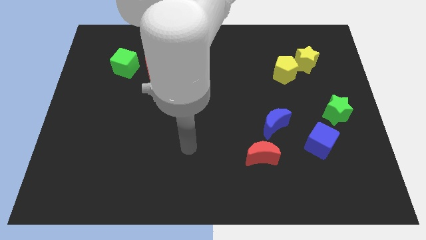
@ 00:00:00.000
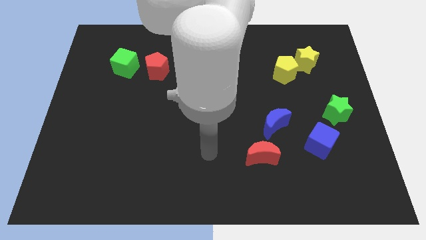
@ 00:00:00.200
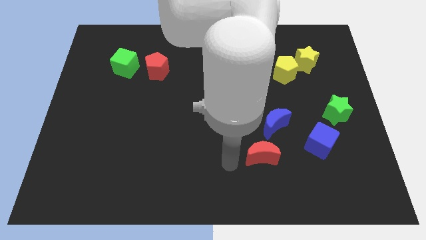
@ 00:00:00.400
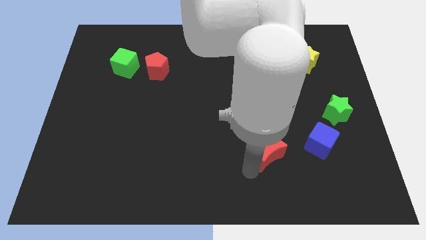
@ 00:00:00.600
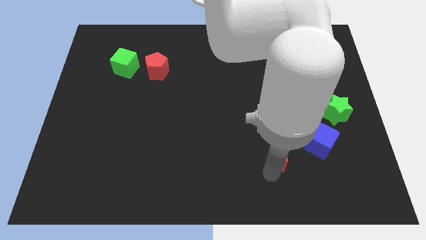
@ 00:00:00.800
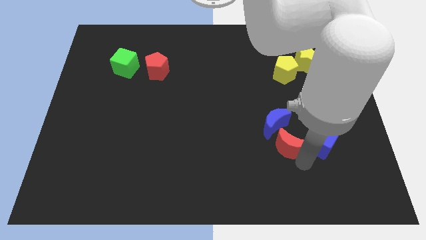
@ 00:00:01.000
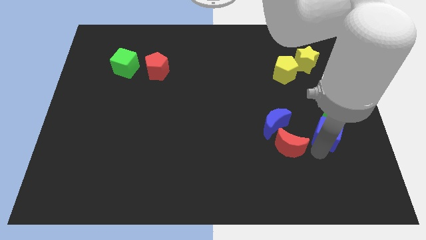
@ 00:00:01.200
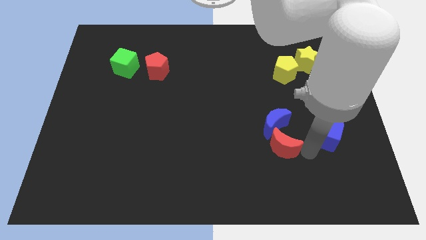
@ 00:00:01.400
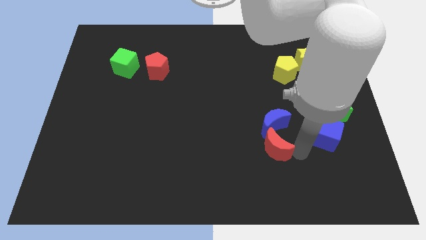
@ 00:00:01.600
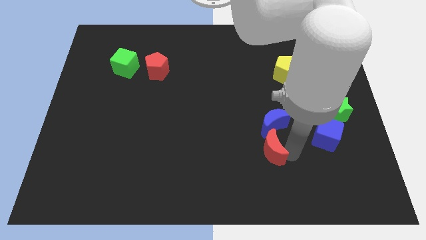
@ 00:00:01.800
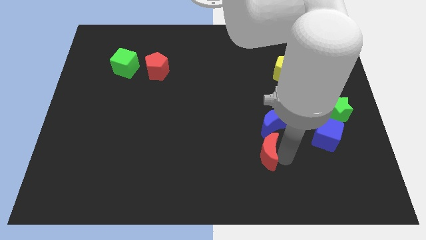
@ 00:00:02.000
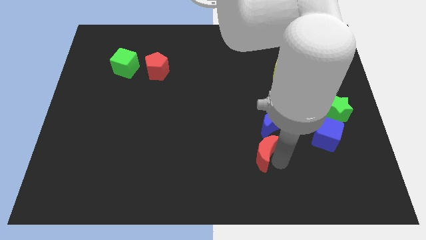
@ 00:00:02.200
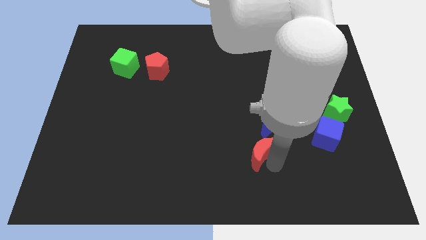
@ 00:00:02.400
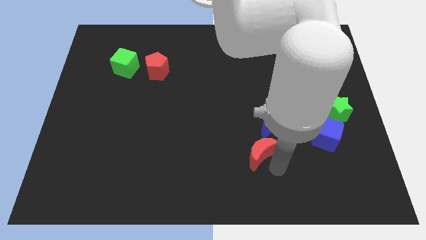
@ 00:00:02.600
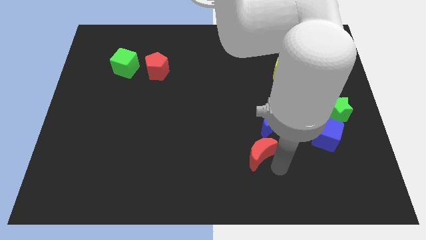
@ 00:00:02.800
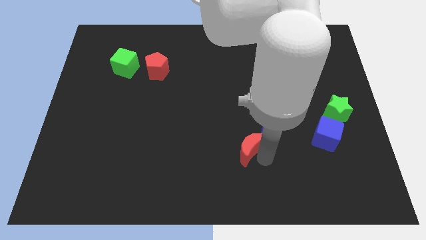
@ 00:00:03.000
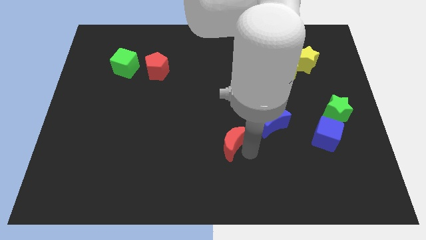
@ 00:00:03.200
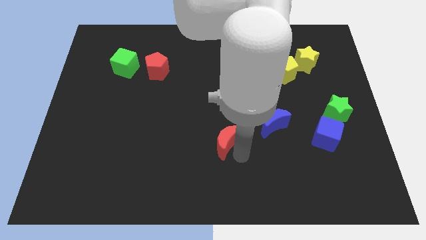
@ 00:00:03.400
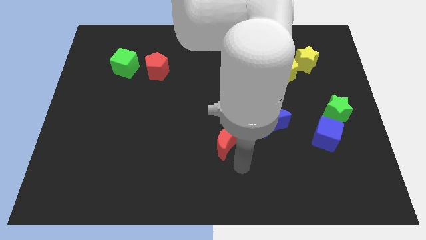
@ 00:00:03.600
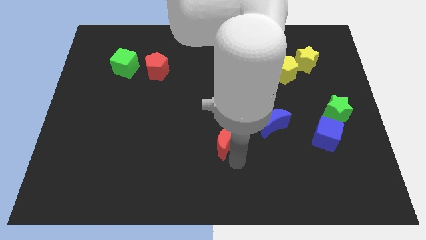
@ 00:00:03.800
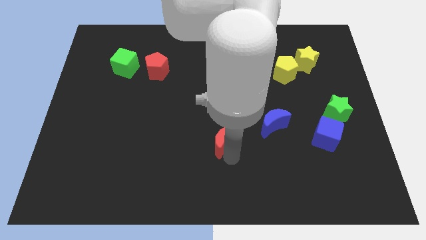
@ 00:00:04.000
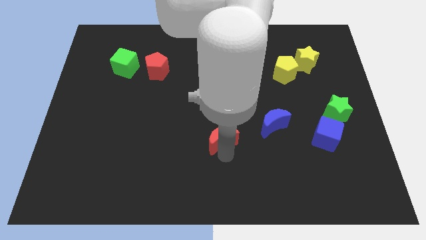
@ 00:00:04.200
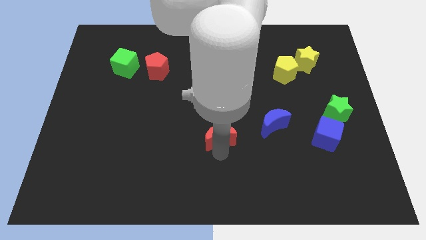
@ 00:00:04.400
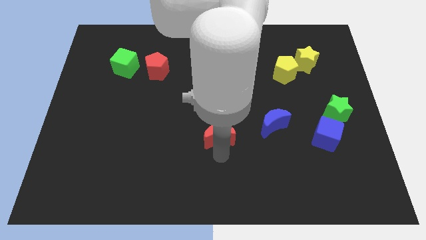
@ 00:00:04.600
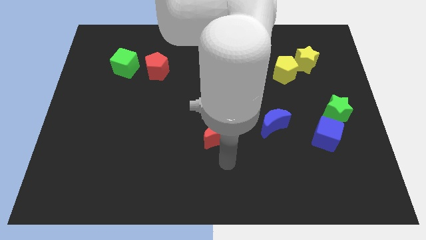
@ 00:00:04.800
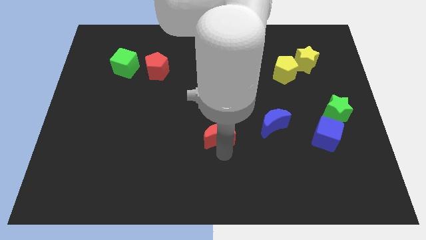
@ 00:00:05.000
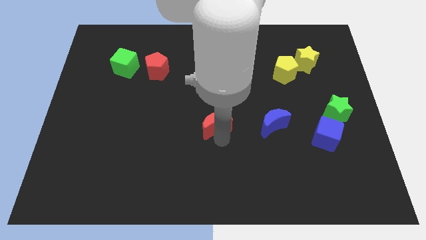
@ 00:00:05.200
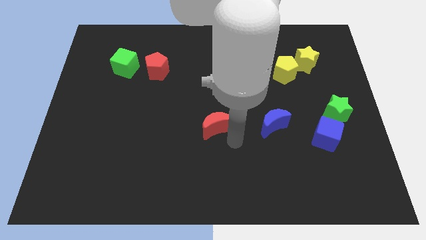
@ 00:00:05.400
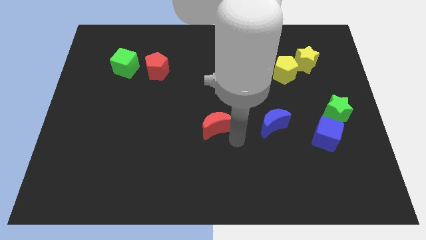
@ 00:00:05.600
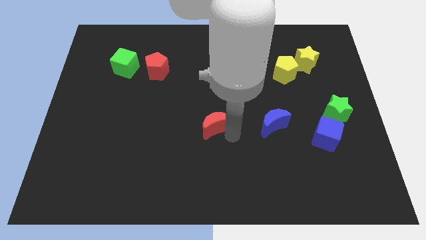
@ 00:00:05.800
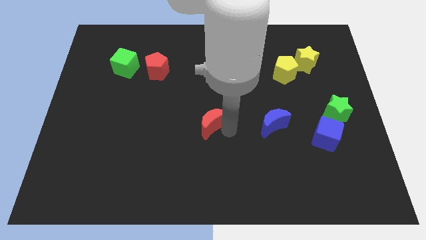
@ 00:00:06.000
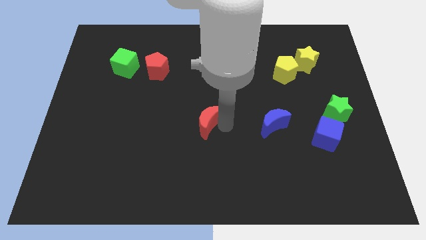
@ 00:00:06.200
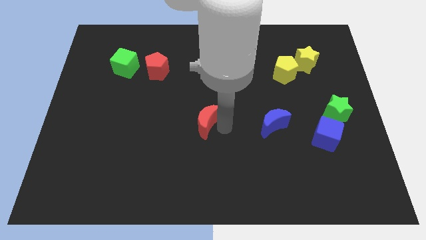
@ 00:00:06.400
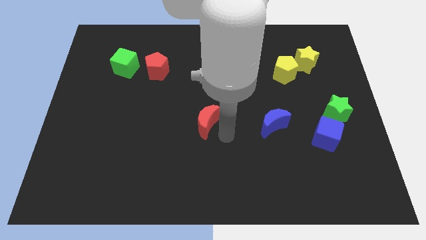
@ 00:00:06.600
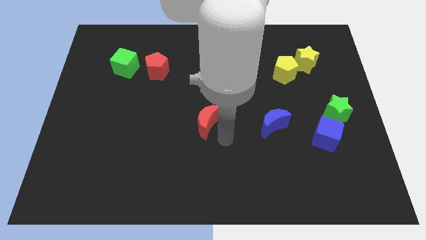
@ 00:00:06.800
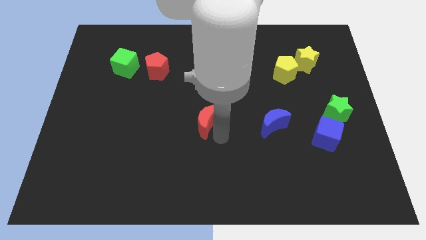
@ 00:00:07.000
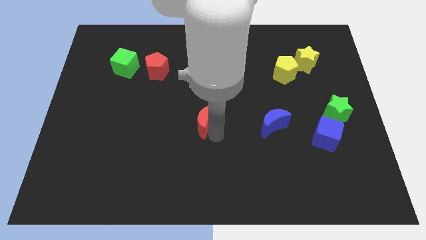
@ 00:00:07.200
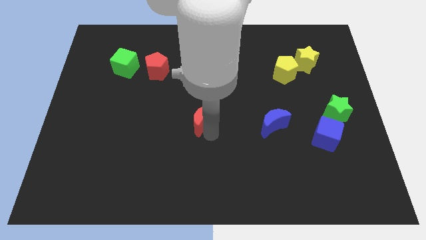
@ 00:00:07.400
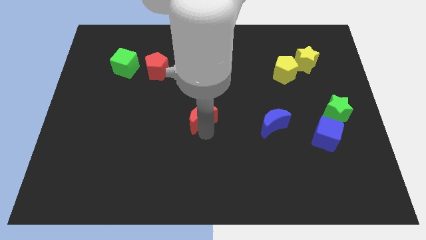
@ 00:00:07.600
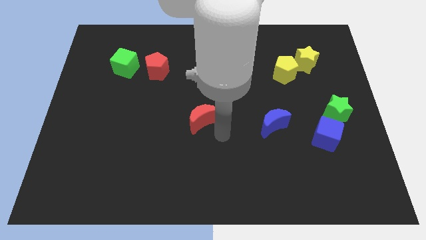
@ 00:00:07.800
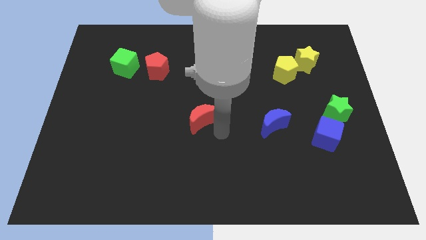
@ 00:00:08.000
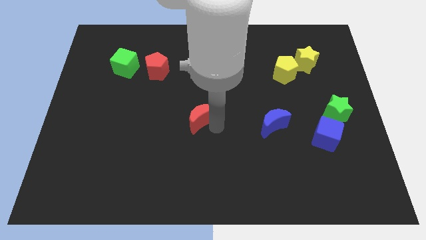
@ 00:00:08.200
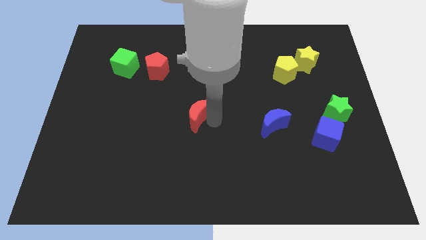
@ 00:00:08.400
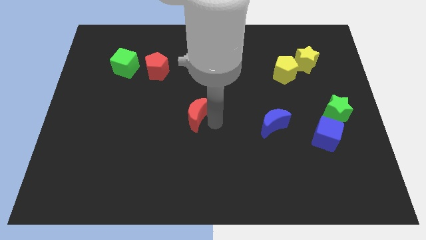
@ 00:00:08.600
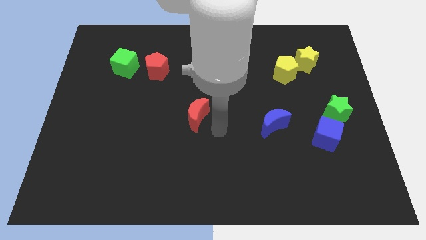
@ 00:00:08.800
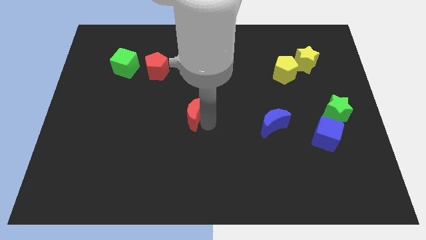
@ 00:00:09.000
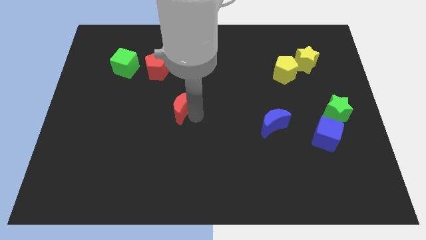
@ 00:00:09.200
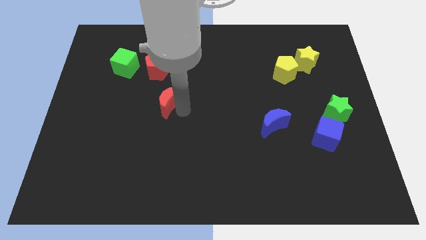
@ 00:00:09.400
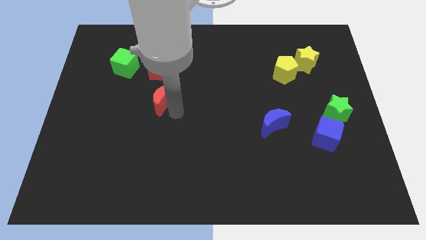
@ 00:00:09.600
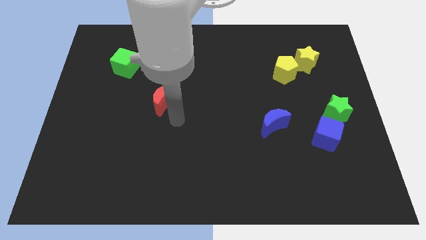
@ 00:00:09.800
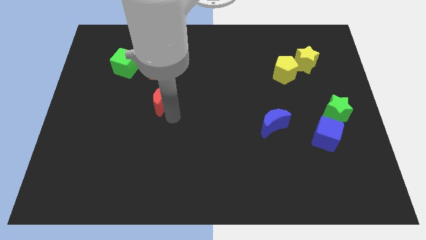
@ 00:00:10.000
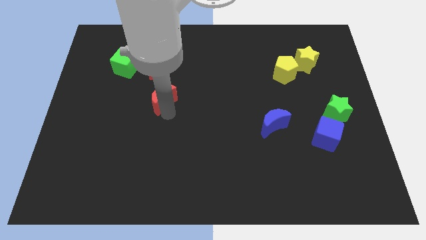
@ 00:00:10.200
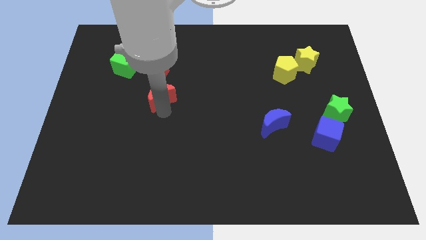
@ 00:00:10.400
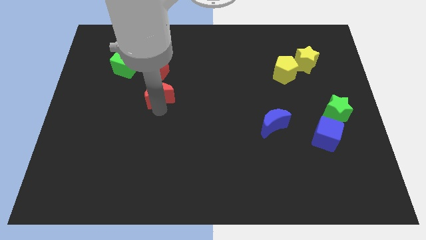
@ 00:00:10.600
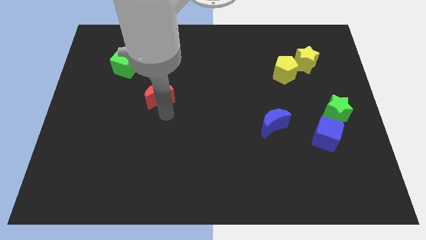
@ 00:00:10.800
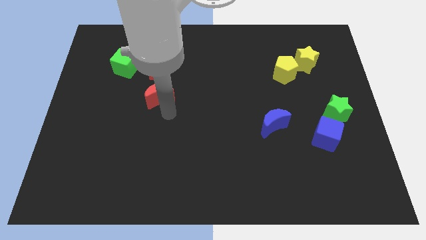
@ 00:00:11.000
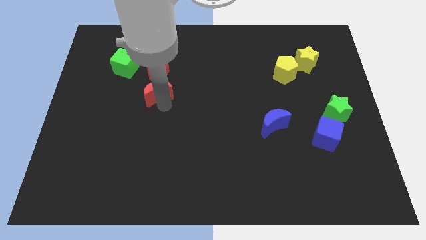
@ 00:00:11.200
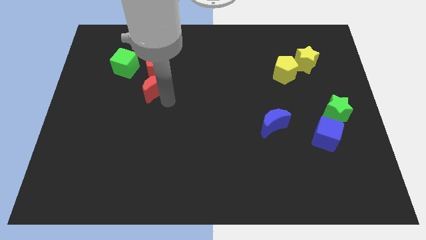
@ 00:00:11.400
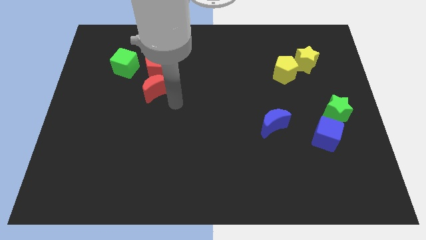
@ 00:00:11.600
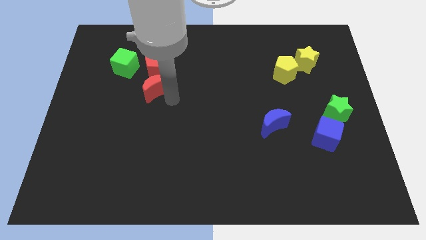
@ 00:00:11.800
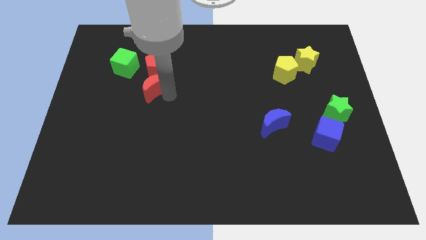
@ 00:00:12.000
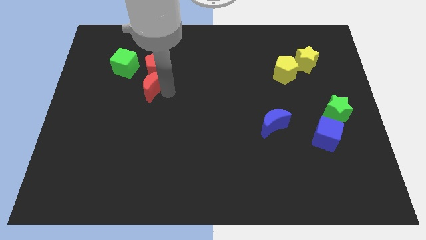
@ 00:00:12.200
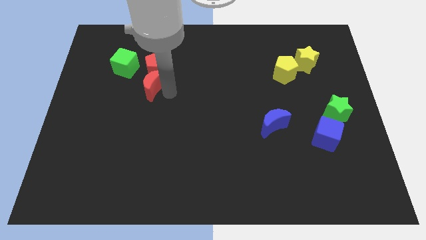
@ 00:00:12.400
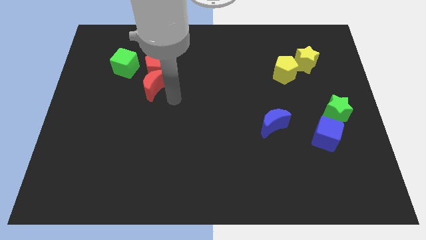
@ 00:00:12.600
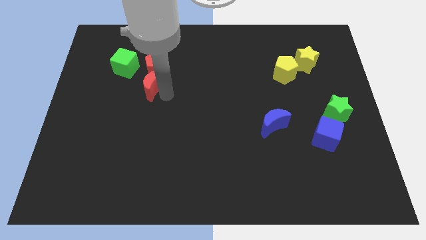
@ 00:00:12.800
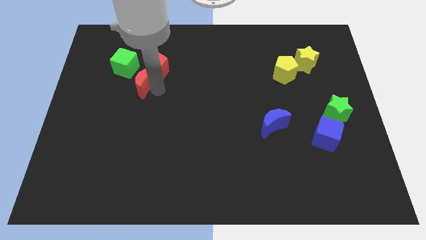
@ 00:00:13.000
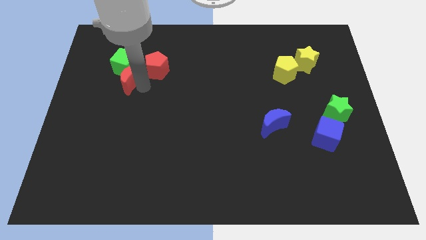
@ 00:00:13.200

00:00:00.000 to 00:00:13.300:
put the red moon to the green cube

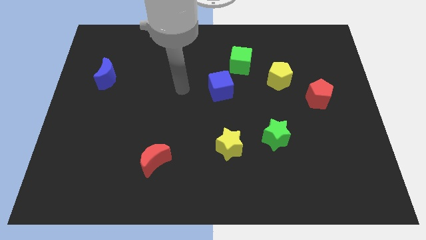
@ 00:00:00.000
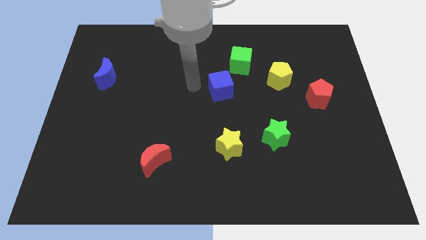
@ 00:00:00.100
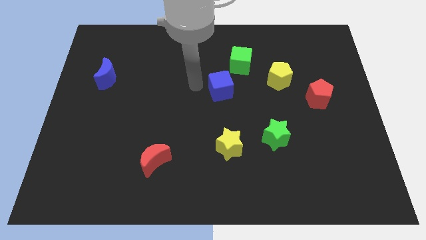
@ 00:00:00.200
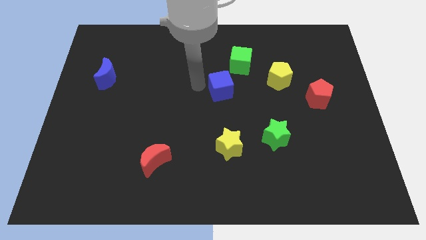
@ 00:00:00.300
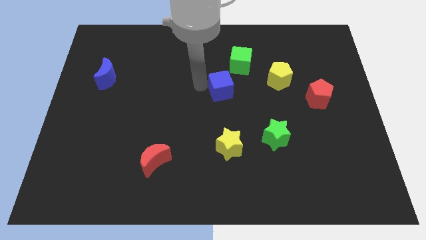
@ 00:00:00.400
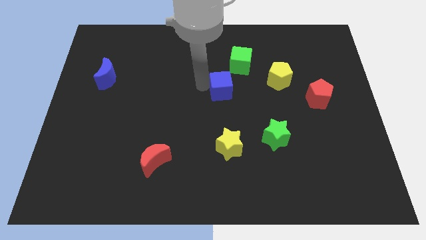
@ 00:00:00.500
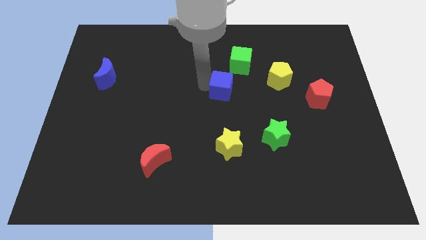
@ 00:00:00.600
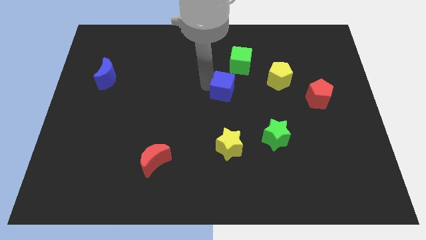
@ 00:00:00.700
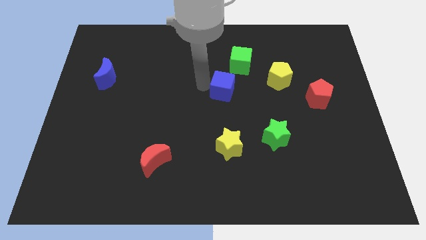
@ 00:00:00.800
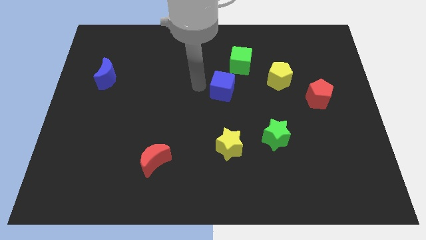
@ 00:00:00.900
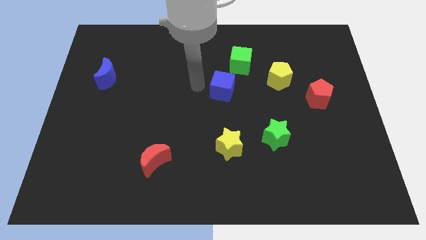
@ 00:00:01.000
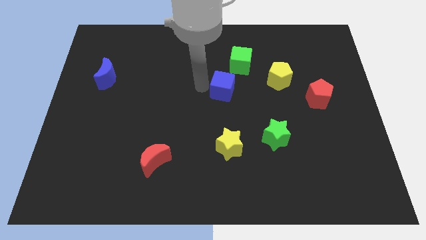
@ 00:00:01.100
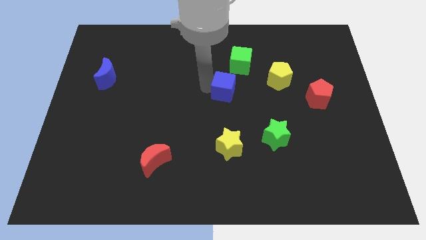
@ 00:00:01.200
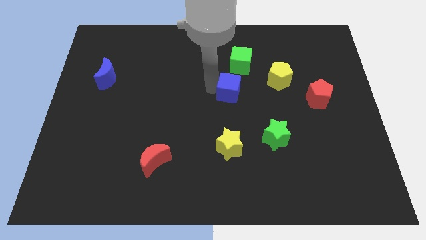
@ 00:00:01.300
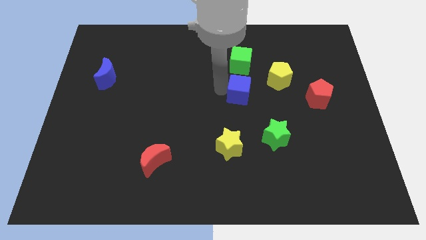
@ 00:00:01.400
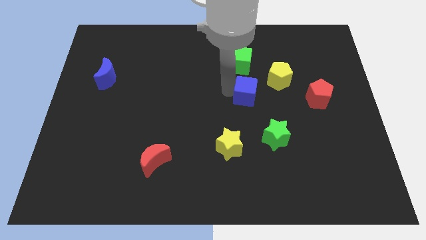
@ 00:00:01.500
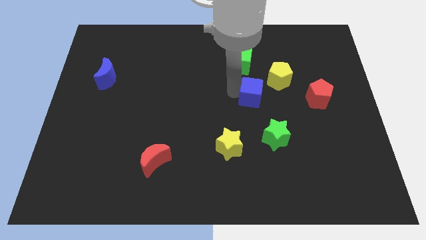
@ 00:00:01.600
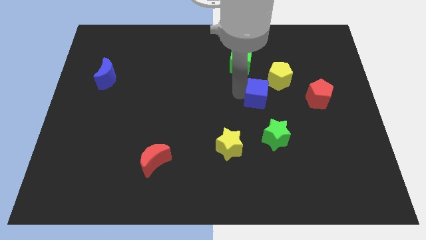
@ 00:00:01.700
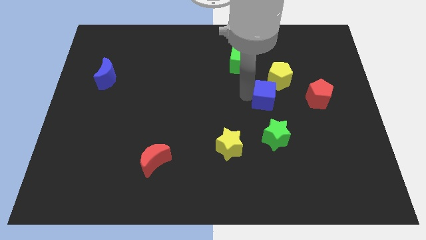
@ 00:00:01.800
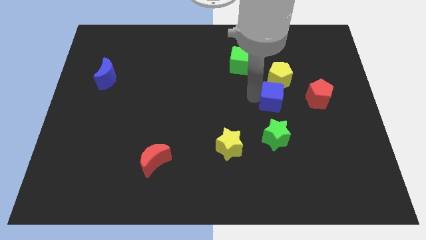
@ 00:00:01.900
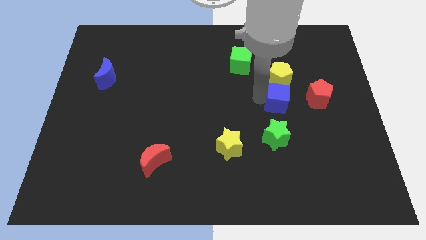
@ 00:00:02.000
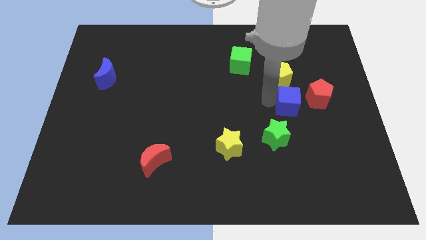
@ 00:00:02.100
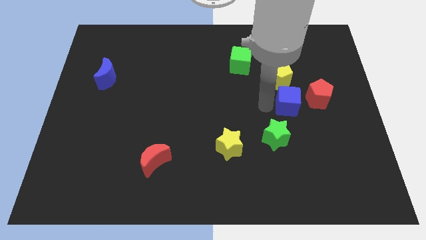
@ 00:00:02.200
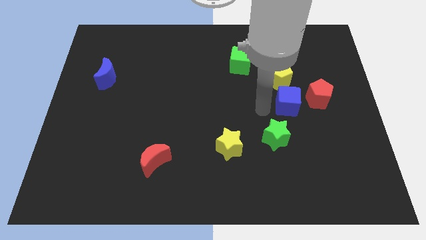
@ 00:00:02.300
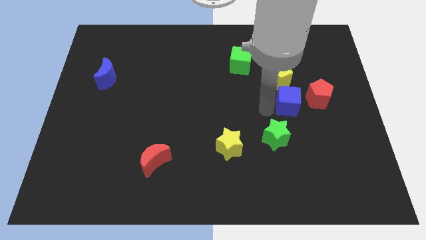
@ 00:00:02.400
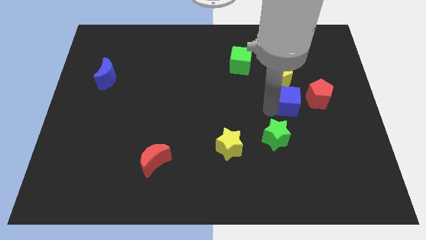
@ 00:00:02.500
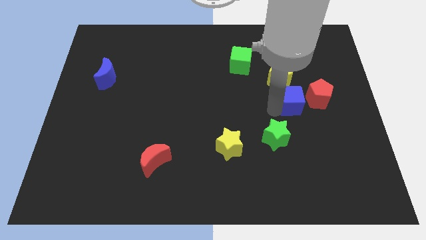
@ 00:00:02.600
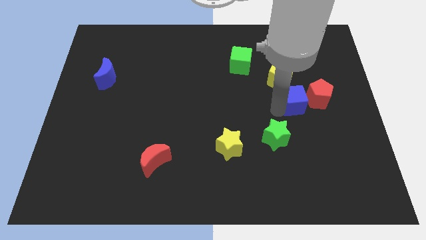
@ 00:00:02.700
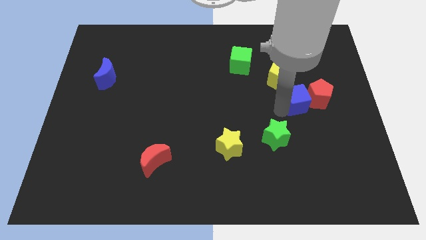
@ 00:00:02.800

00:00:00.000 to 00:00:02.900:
put the blue cube towards the red pentagon
